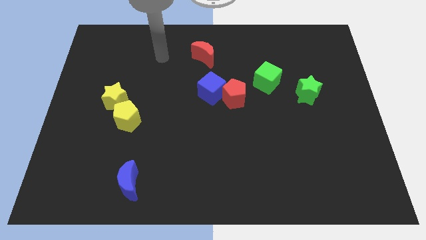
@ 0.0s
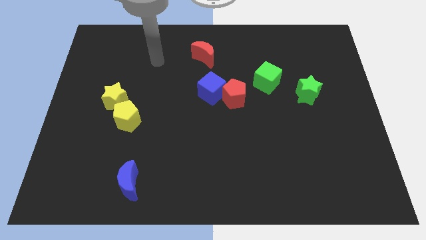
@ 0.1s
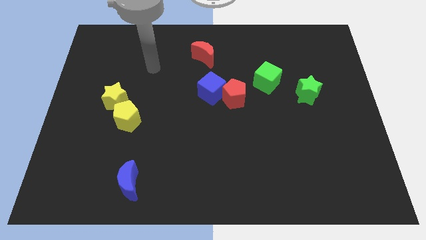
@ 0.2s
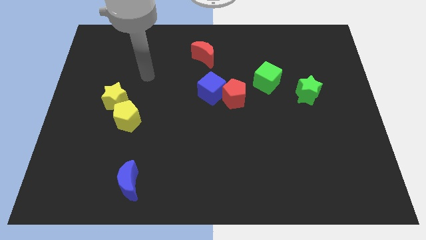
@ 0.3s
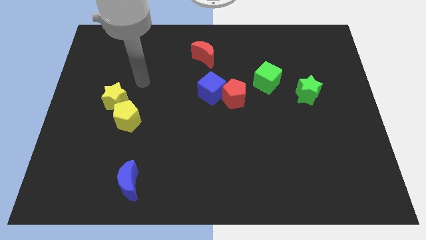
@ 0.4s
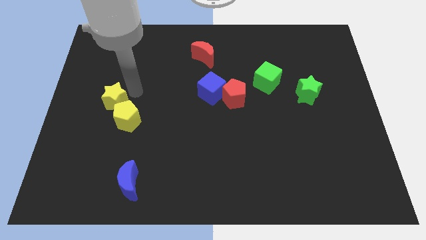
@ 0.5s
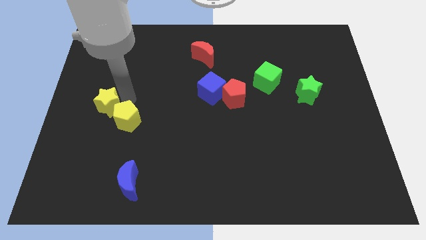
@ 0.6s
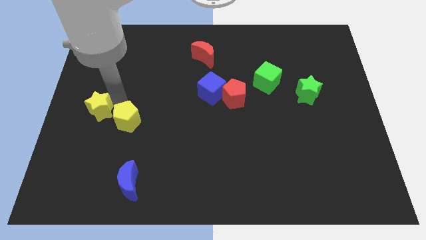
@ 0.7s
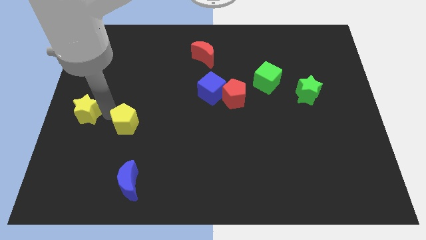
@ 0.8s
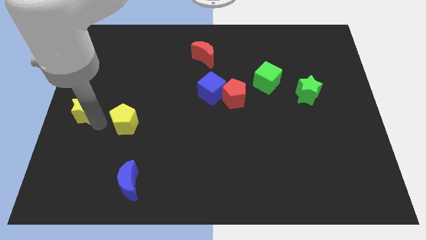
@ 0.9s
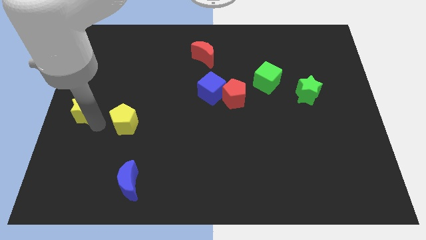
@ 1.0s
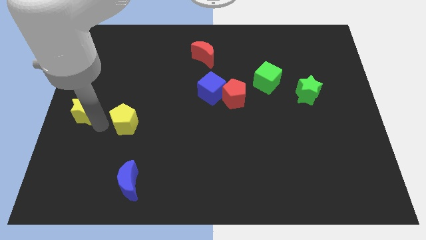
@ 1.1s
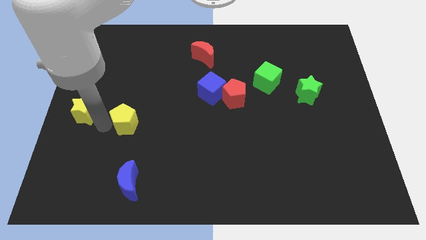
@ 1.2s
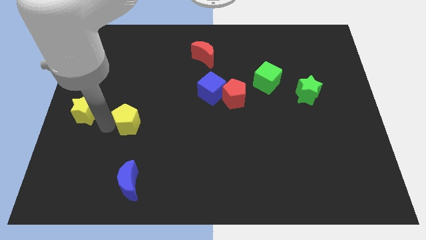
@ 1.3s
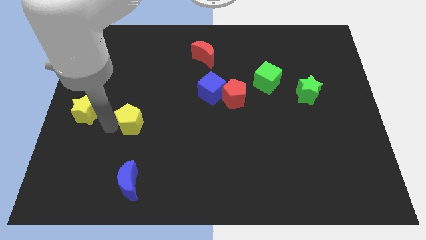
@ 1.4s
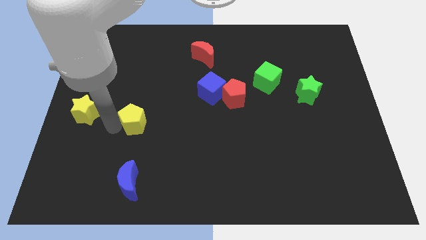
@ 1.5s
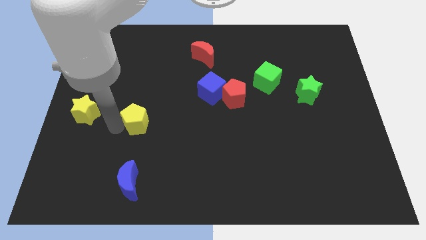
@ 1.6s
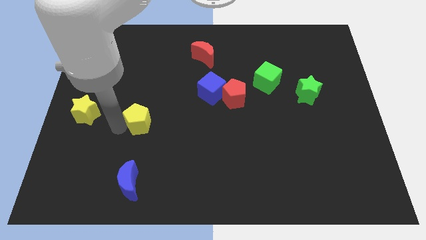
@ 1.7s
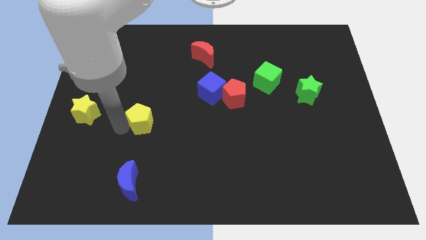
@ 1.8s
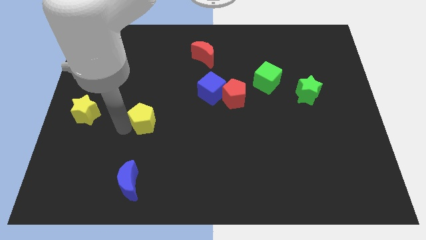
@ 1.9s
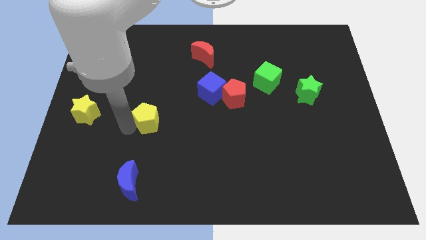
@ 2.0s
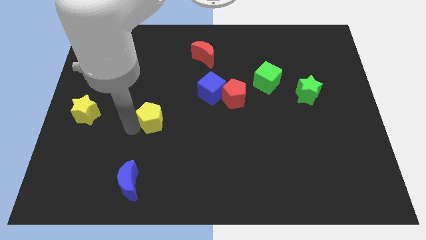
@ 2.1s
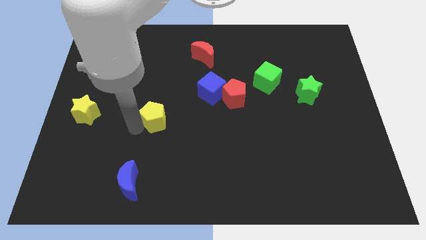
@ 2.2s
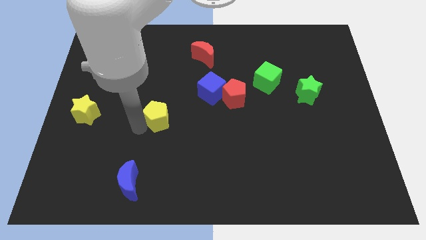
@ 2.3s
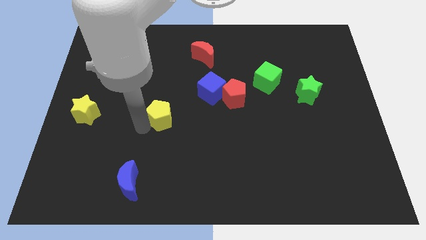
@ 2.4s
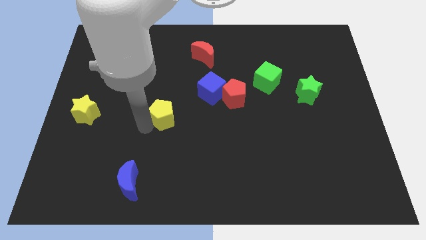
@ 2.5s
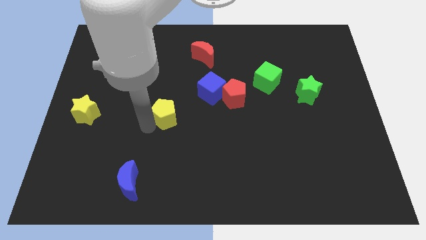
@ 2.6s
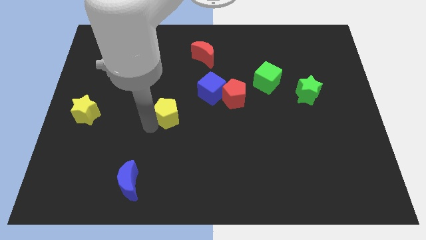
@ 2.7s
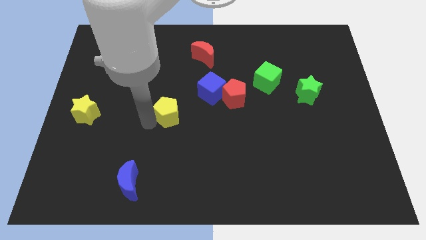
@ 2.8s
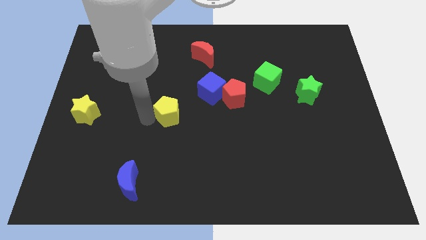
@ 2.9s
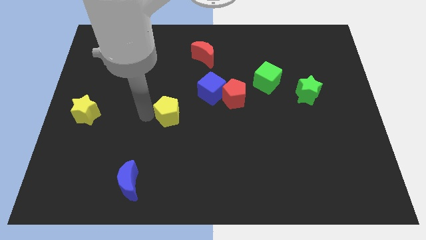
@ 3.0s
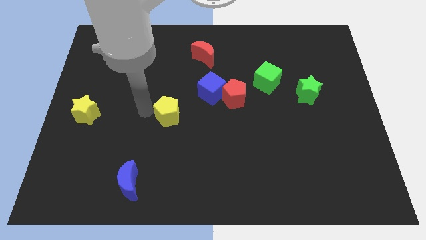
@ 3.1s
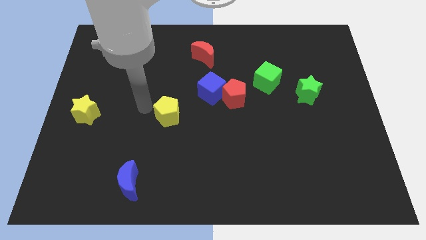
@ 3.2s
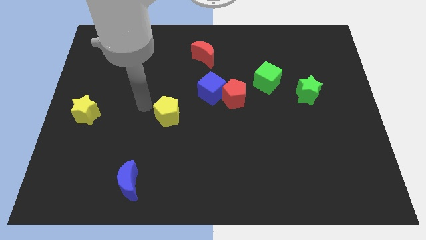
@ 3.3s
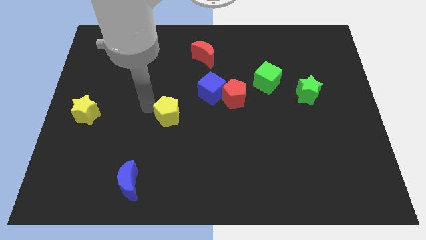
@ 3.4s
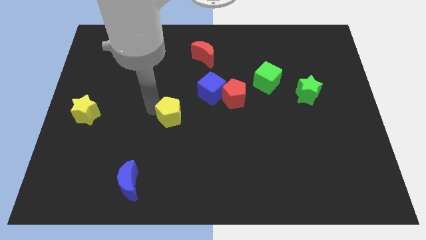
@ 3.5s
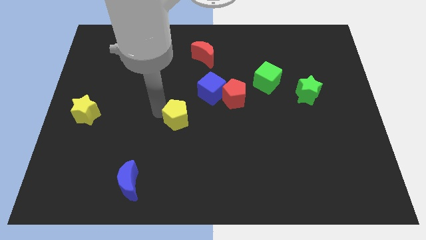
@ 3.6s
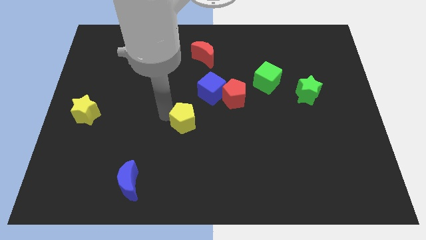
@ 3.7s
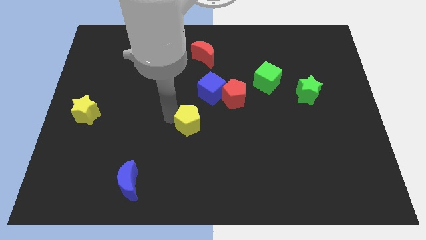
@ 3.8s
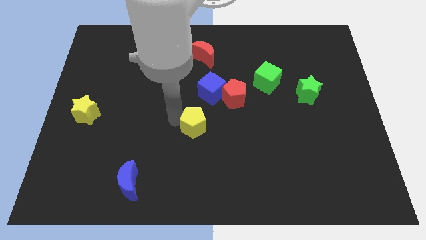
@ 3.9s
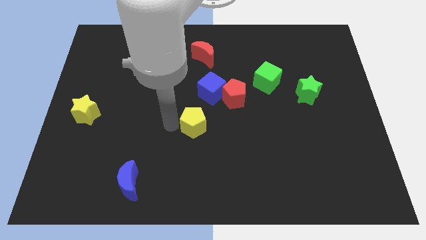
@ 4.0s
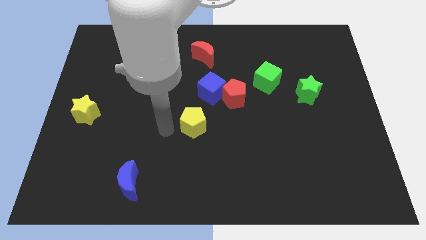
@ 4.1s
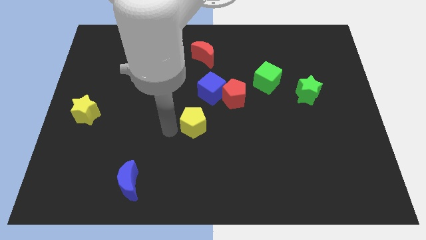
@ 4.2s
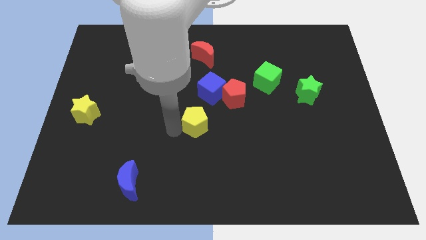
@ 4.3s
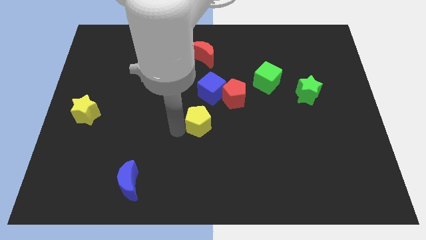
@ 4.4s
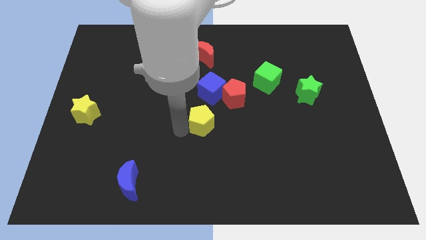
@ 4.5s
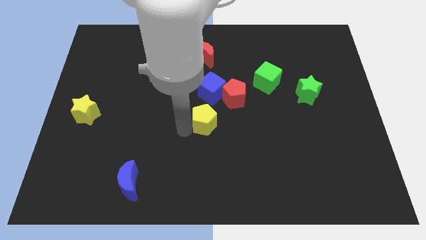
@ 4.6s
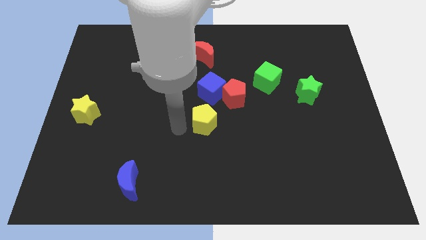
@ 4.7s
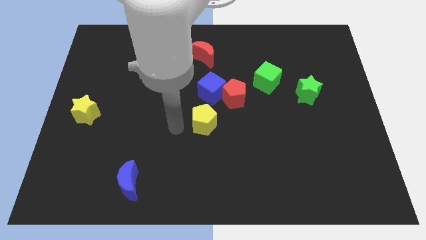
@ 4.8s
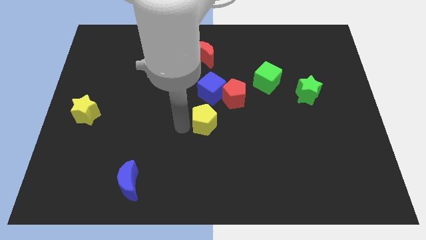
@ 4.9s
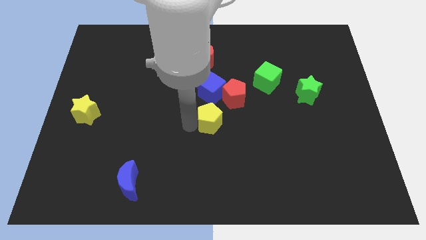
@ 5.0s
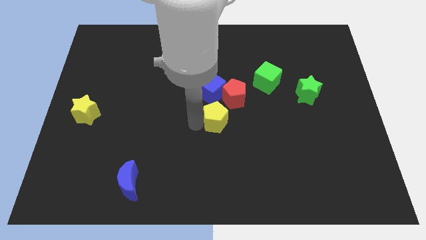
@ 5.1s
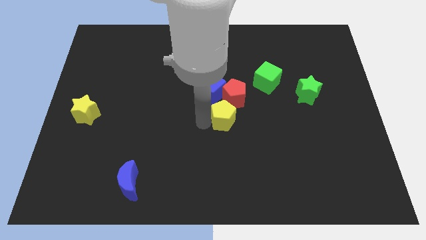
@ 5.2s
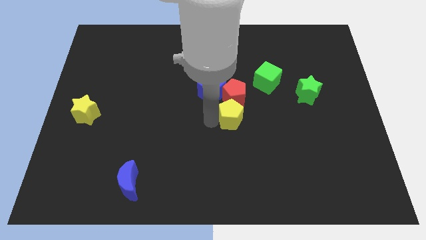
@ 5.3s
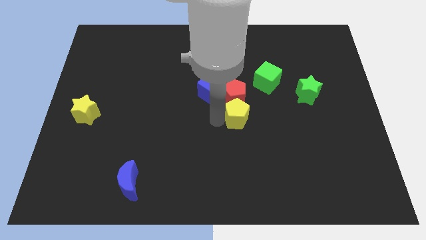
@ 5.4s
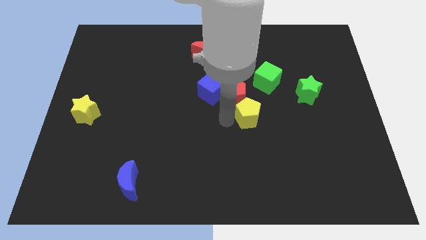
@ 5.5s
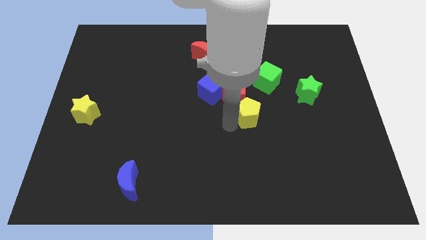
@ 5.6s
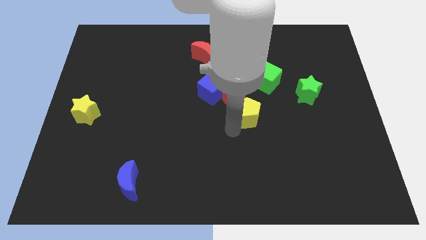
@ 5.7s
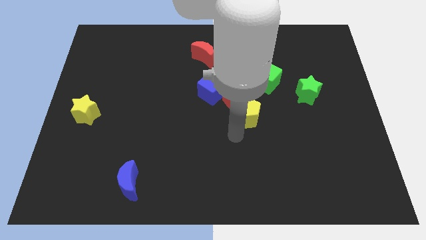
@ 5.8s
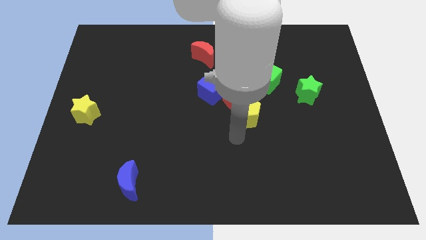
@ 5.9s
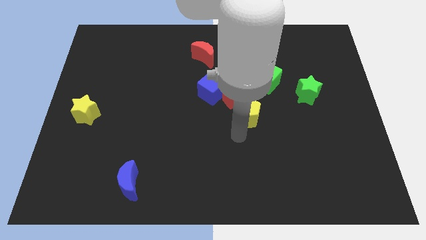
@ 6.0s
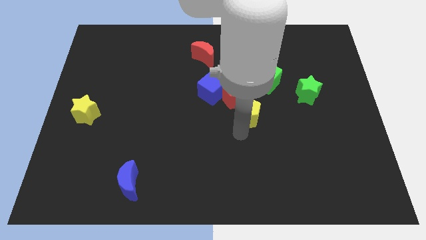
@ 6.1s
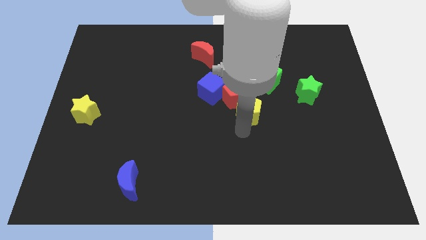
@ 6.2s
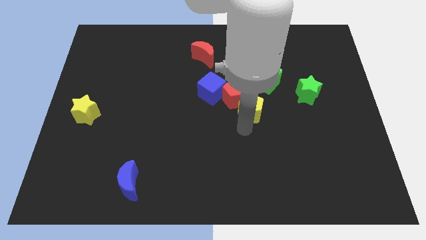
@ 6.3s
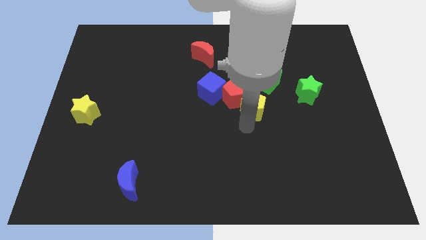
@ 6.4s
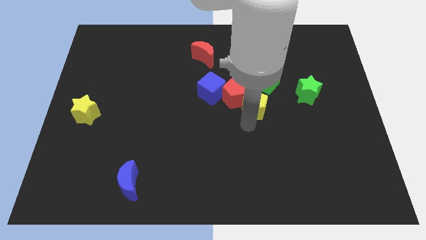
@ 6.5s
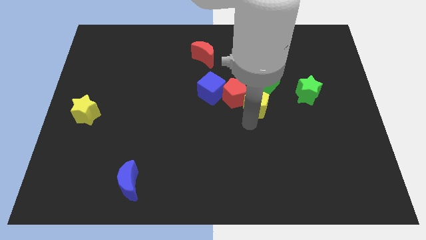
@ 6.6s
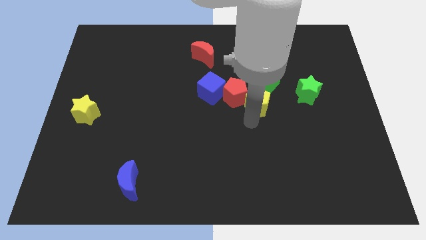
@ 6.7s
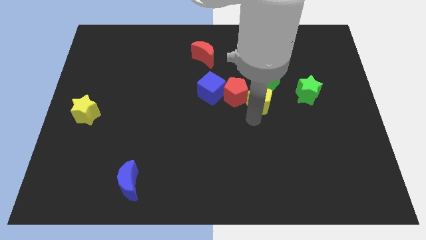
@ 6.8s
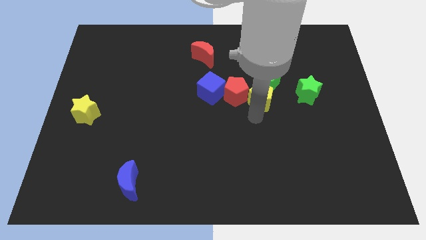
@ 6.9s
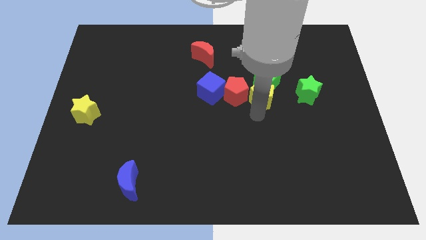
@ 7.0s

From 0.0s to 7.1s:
put the yellow pentagon close to the green cube
